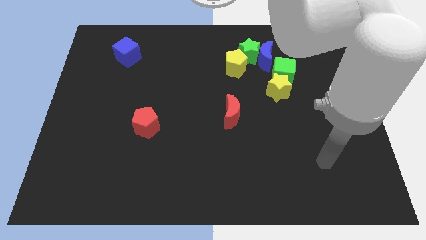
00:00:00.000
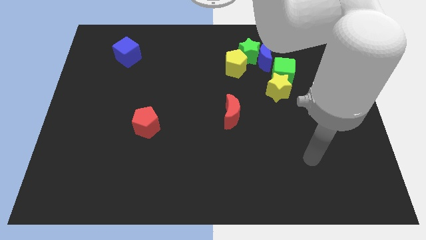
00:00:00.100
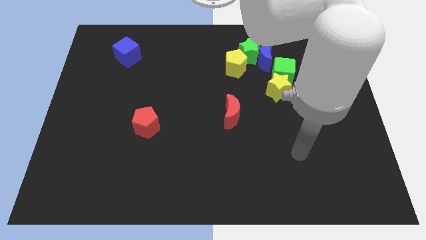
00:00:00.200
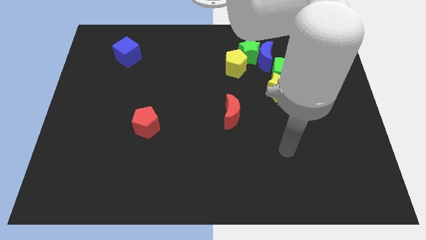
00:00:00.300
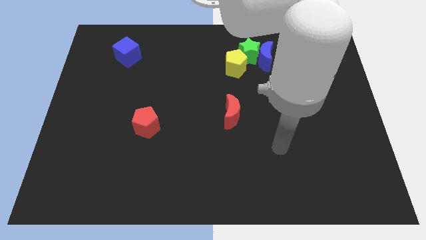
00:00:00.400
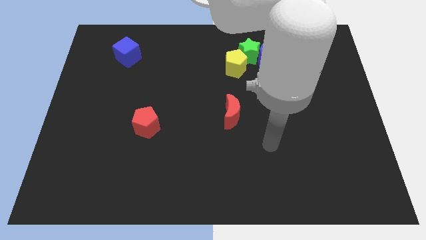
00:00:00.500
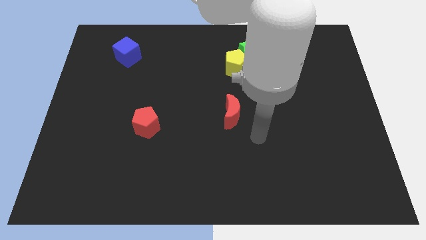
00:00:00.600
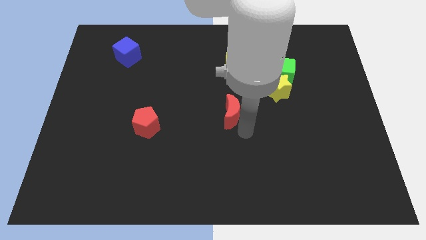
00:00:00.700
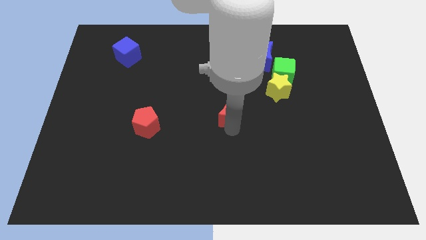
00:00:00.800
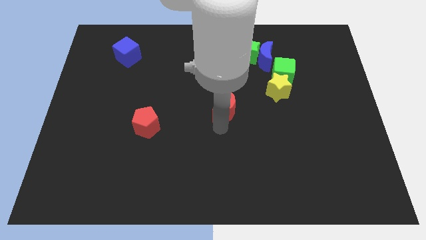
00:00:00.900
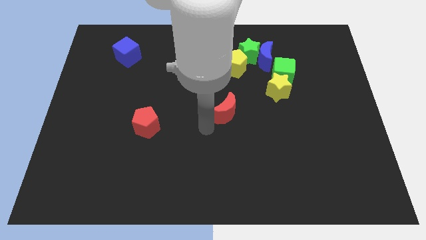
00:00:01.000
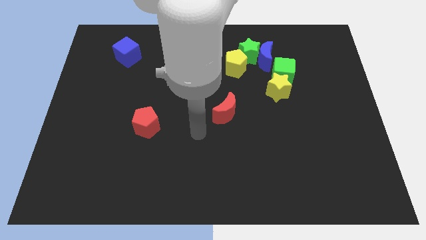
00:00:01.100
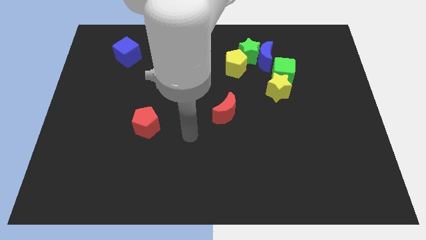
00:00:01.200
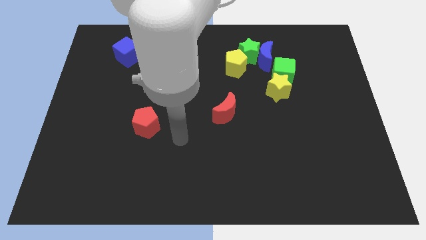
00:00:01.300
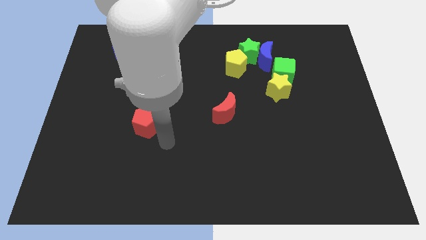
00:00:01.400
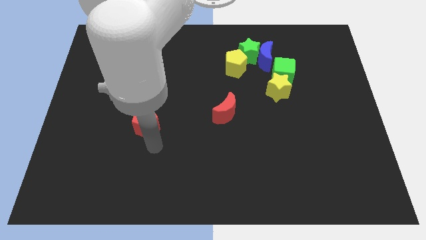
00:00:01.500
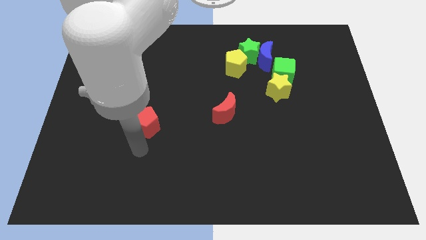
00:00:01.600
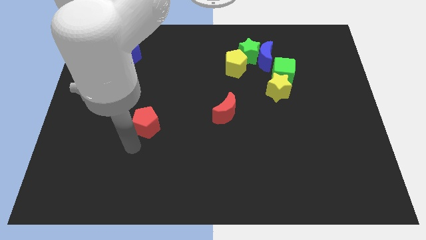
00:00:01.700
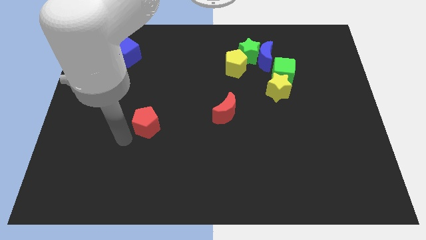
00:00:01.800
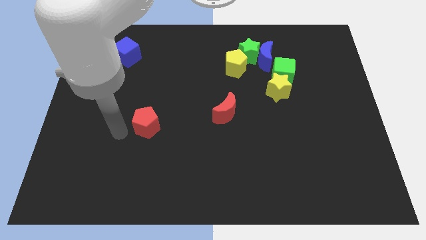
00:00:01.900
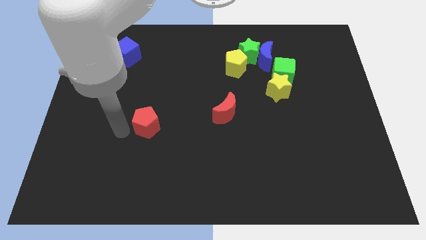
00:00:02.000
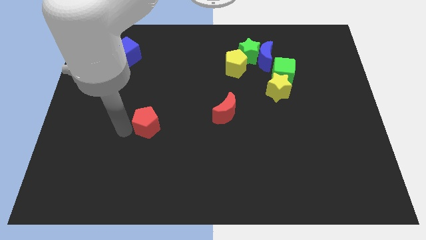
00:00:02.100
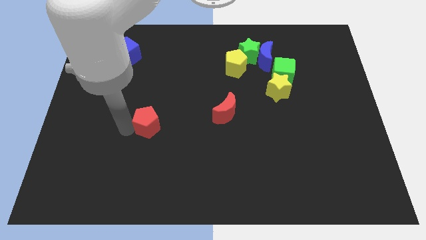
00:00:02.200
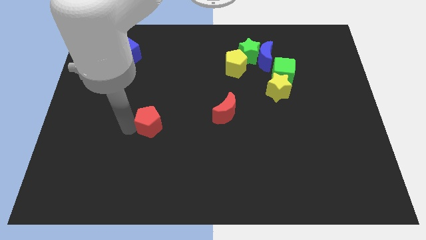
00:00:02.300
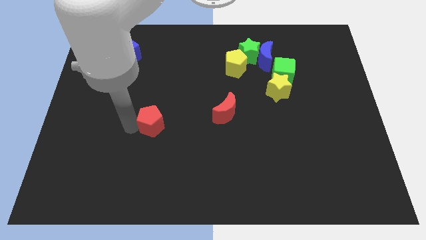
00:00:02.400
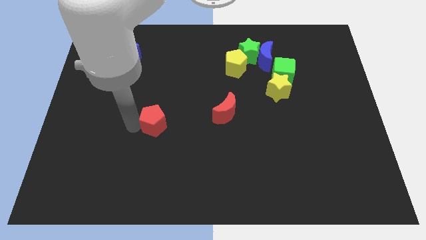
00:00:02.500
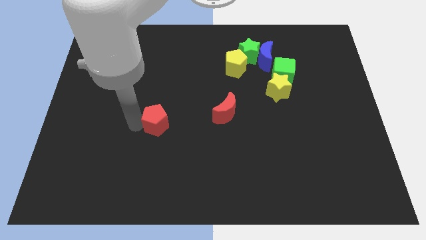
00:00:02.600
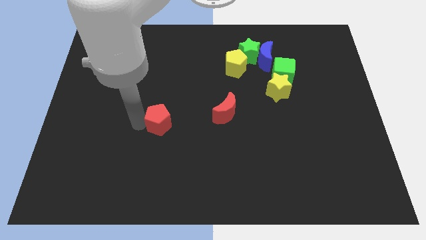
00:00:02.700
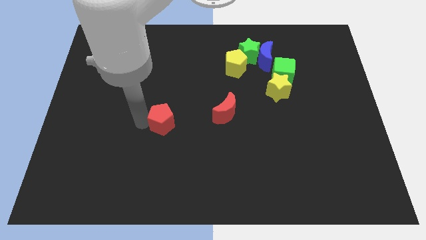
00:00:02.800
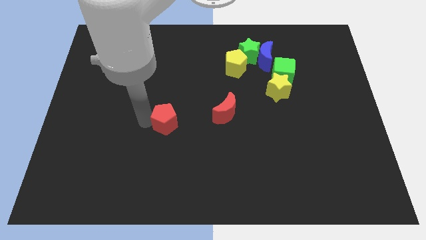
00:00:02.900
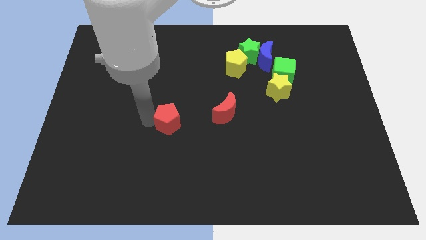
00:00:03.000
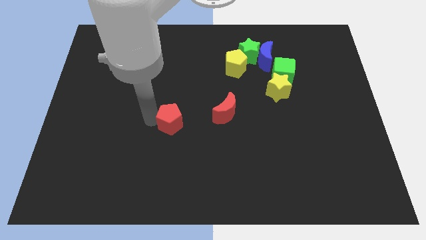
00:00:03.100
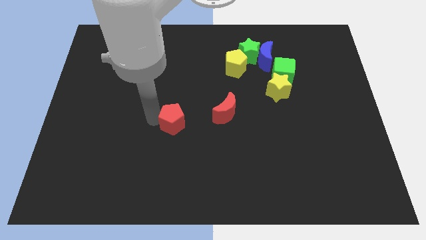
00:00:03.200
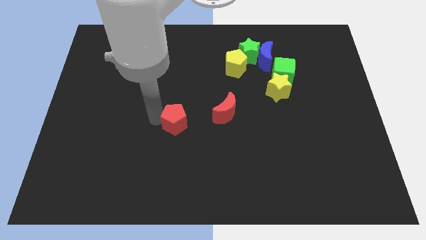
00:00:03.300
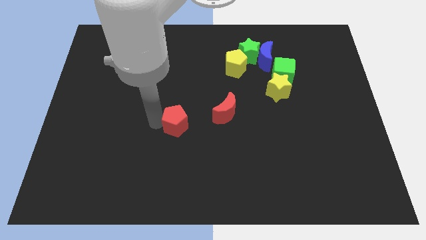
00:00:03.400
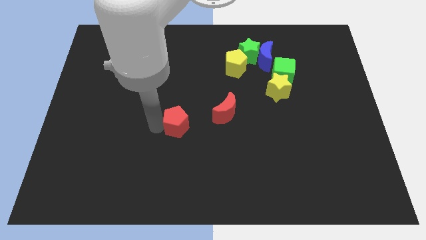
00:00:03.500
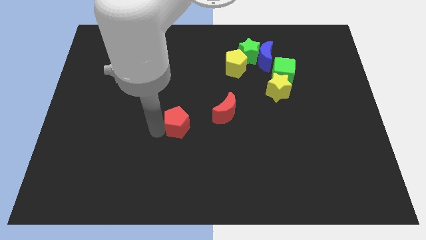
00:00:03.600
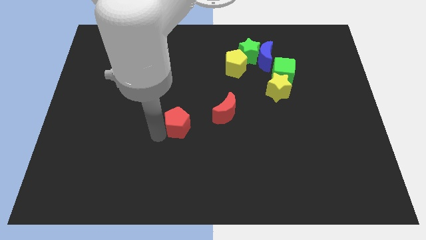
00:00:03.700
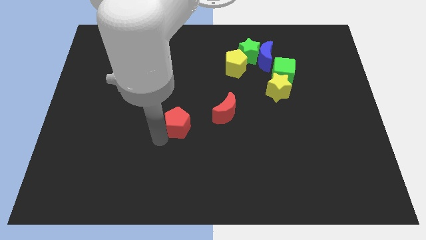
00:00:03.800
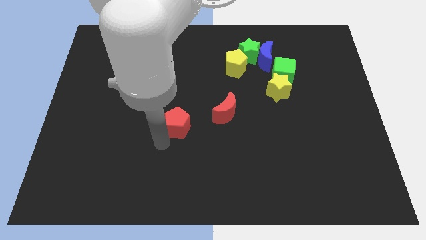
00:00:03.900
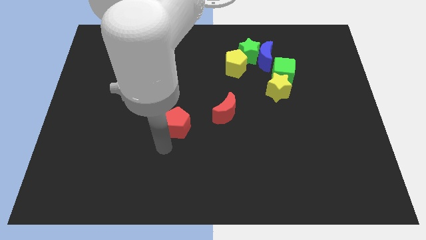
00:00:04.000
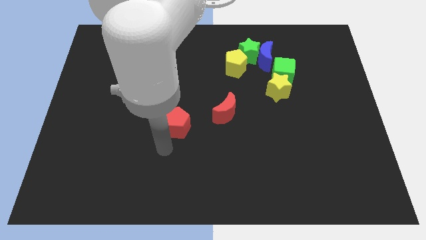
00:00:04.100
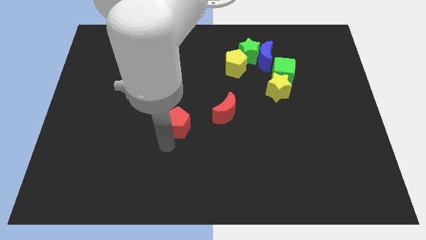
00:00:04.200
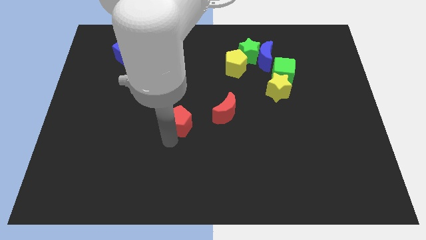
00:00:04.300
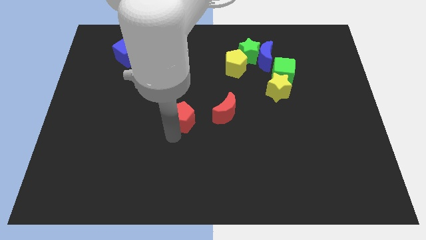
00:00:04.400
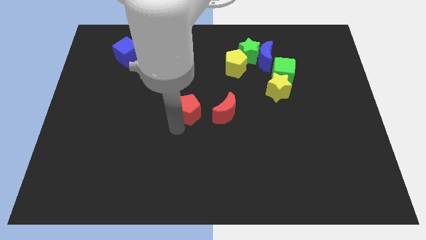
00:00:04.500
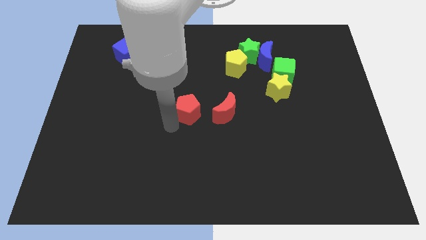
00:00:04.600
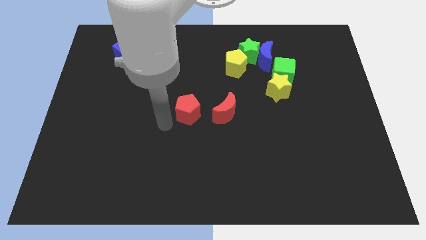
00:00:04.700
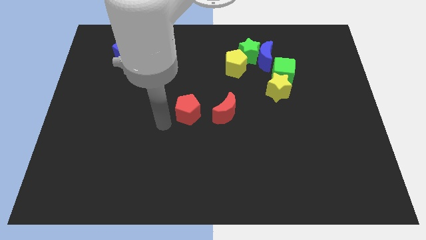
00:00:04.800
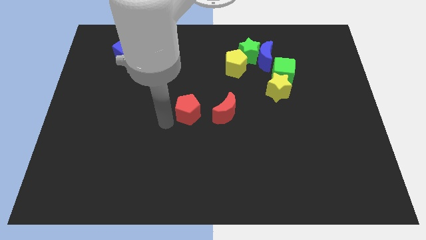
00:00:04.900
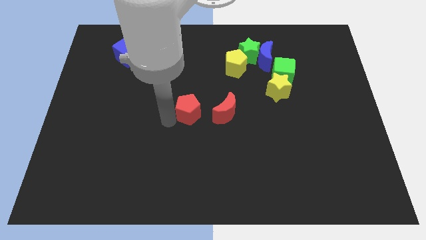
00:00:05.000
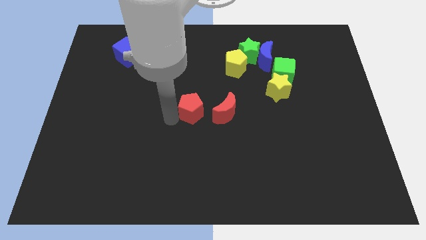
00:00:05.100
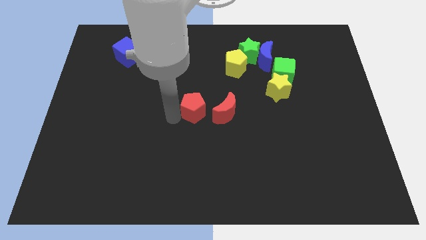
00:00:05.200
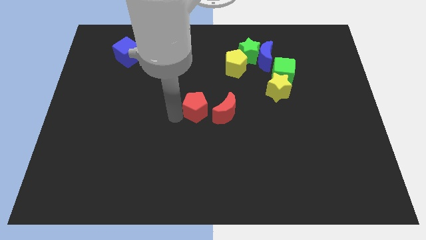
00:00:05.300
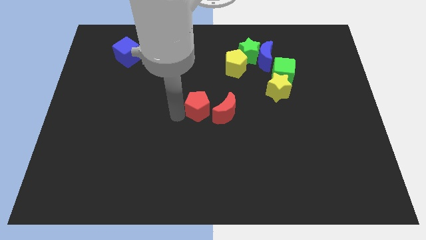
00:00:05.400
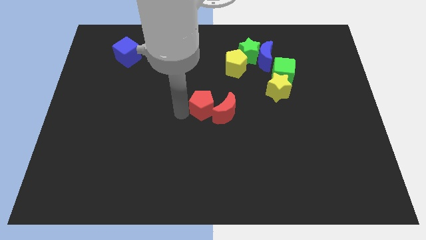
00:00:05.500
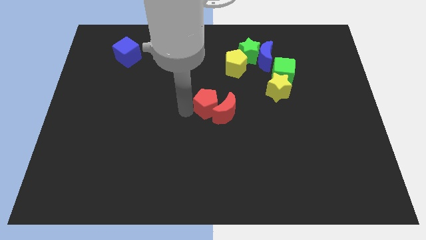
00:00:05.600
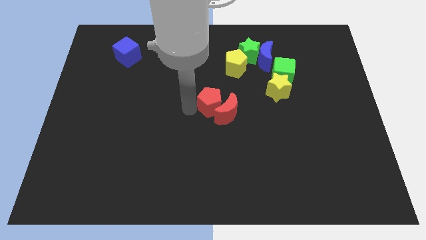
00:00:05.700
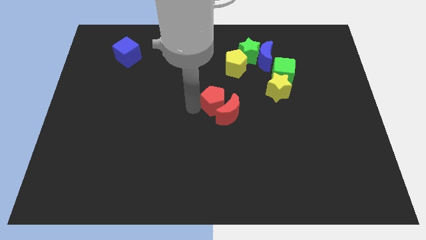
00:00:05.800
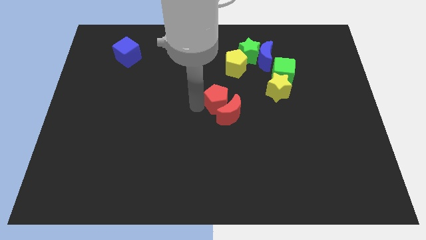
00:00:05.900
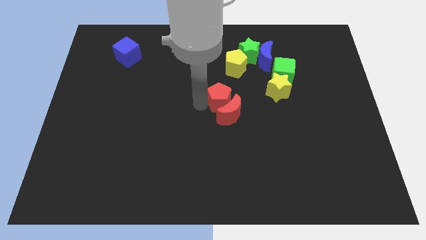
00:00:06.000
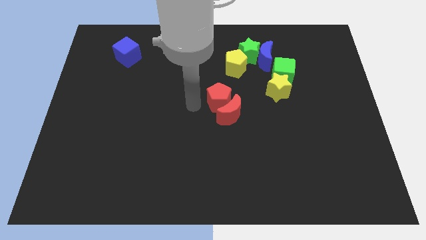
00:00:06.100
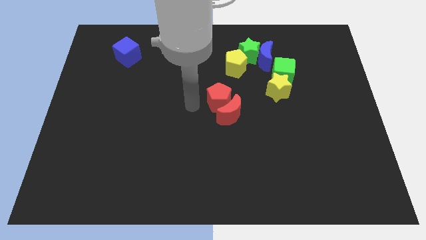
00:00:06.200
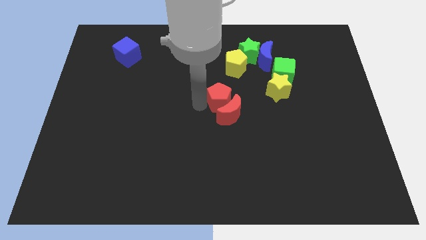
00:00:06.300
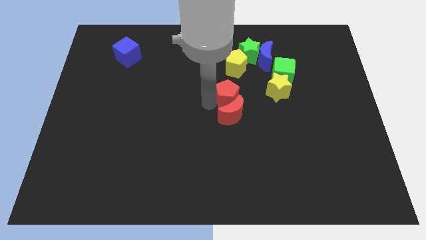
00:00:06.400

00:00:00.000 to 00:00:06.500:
slide the red pentagon to the top right of the red moon

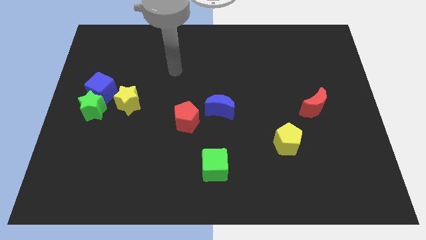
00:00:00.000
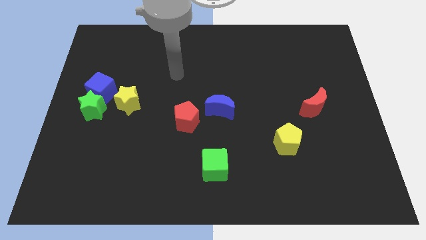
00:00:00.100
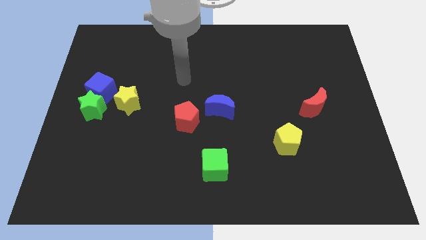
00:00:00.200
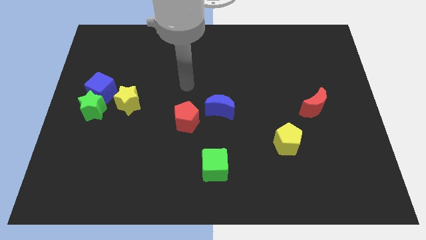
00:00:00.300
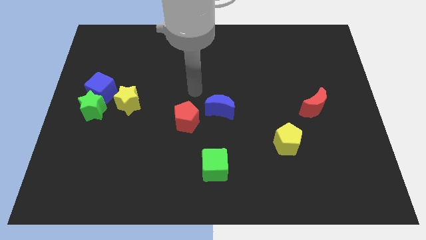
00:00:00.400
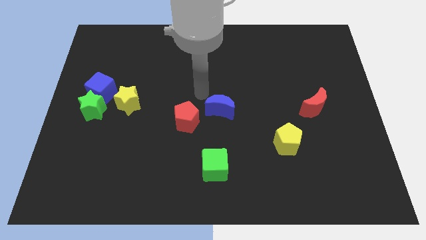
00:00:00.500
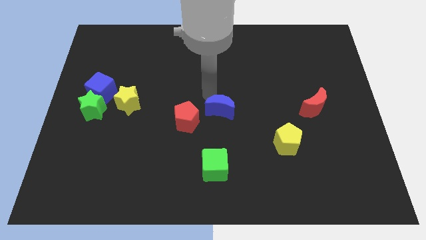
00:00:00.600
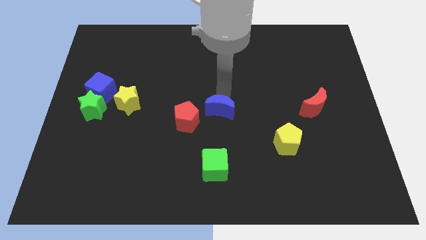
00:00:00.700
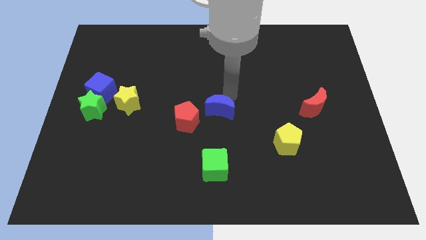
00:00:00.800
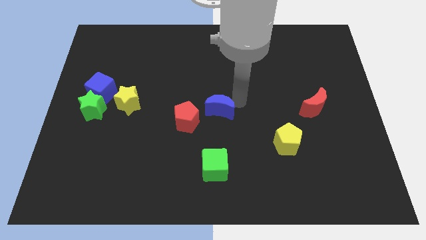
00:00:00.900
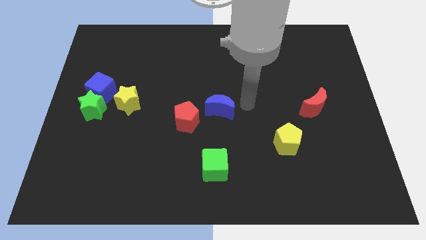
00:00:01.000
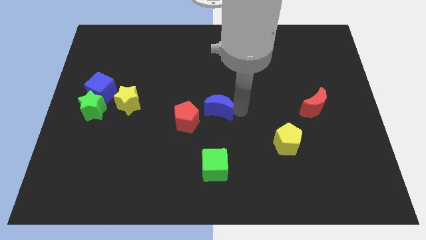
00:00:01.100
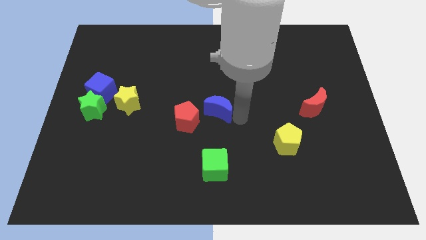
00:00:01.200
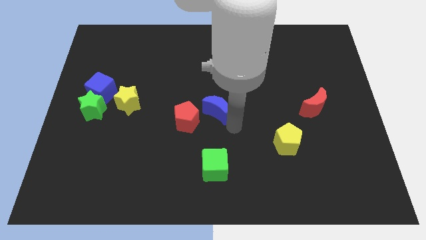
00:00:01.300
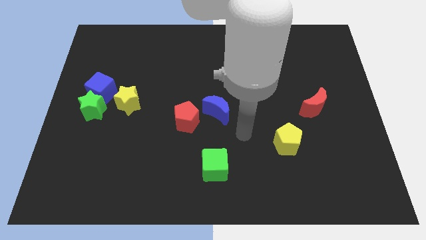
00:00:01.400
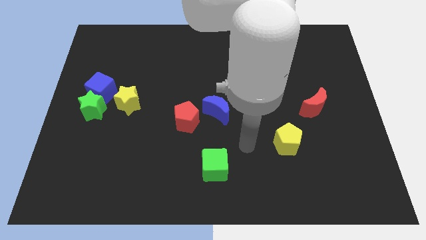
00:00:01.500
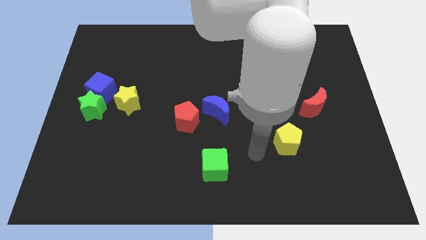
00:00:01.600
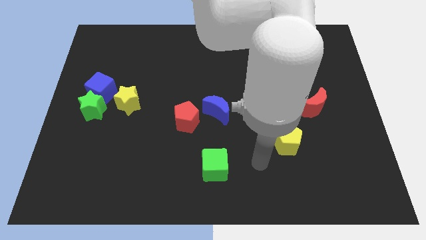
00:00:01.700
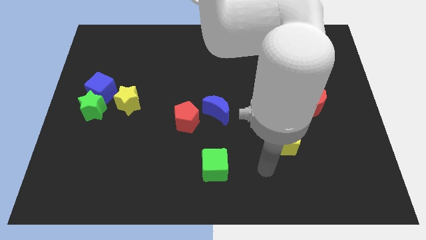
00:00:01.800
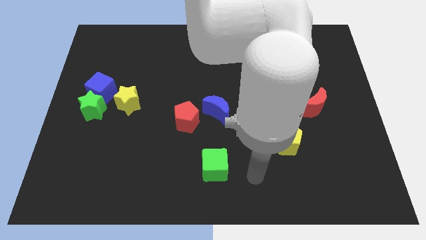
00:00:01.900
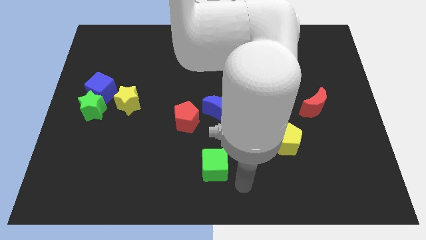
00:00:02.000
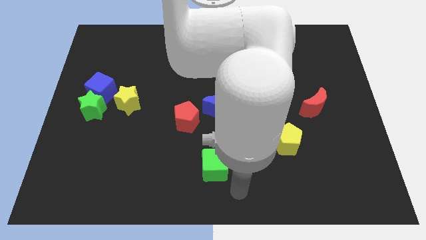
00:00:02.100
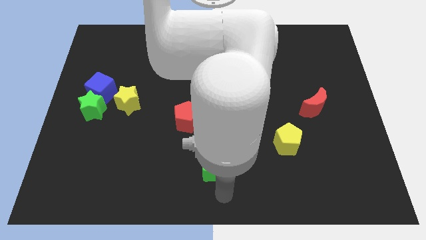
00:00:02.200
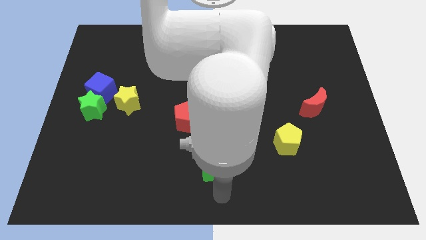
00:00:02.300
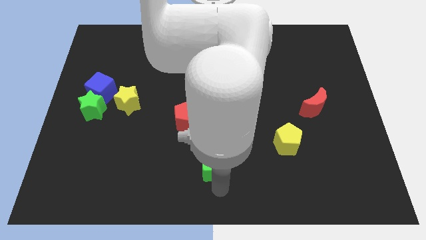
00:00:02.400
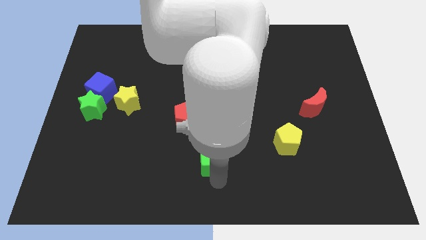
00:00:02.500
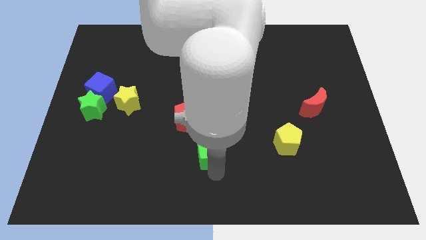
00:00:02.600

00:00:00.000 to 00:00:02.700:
slide the green cube diagonally down and to the right of the red pentagon
